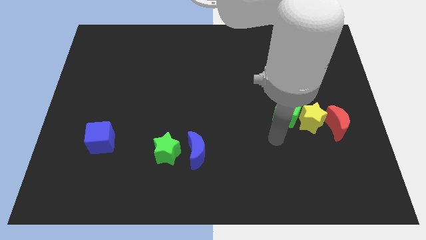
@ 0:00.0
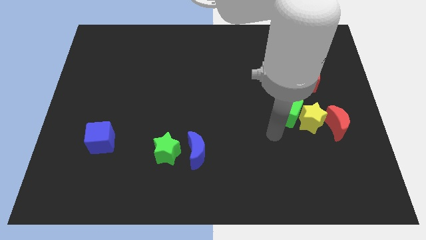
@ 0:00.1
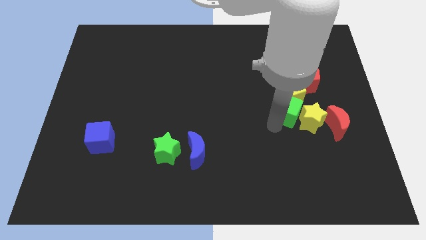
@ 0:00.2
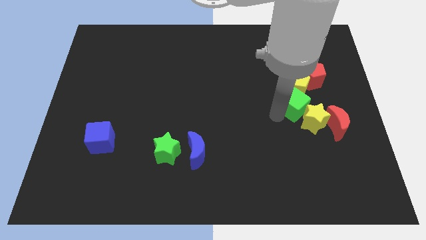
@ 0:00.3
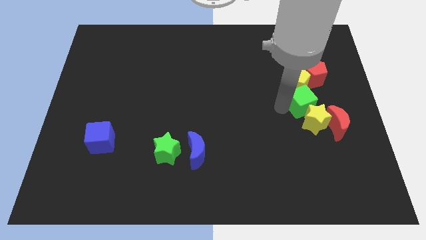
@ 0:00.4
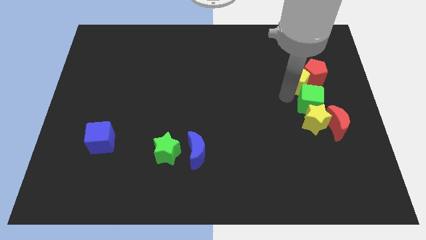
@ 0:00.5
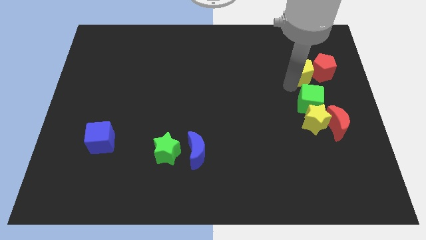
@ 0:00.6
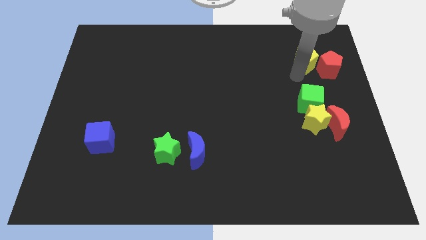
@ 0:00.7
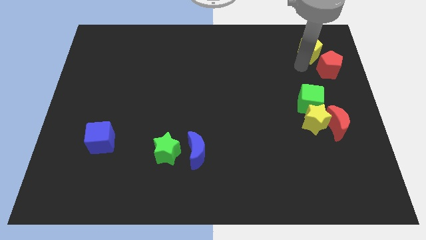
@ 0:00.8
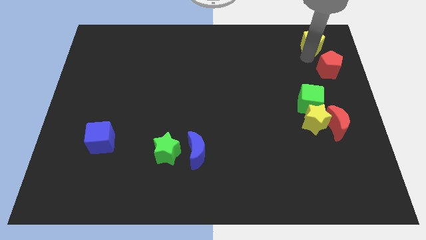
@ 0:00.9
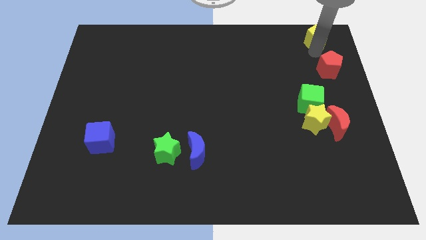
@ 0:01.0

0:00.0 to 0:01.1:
move the red pentagon away from the yellow pentagon

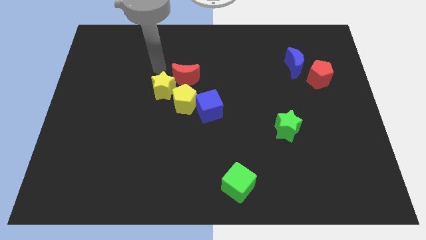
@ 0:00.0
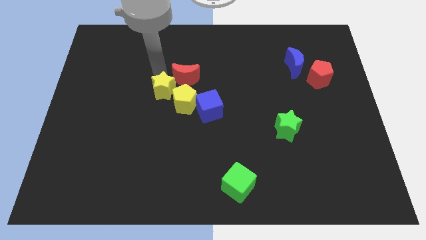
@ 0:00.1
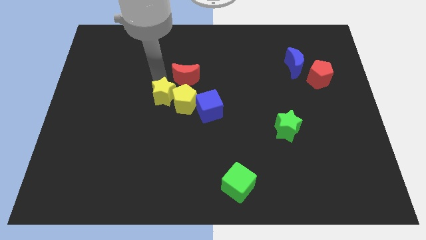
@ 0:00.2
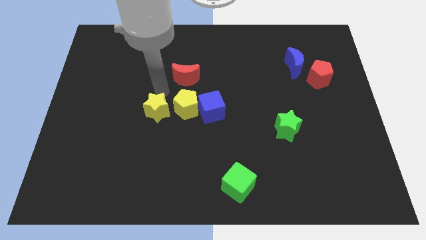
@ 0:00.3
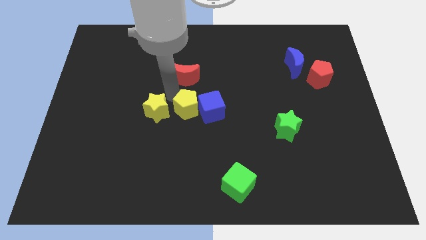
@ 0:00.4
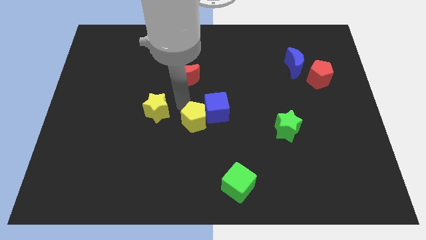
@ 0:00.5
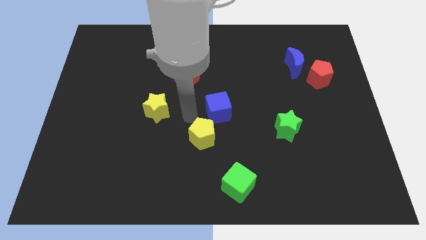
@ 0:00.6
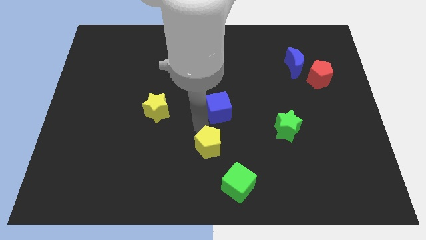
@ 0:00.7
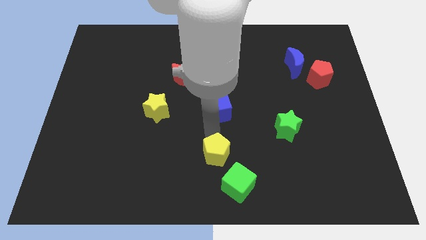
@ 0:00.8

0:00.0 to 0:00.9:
move the blue cube away from the yellow pentagon

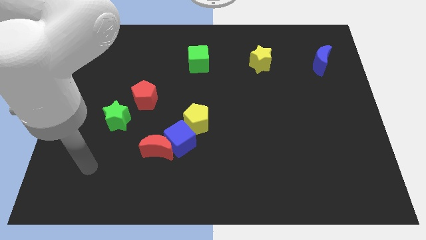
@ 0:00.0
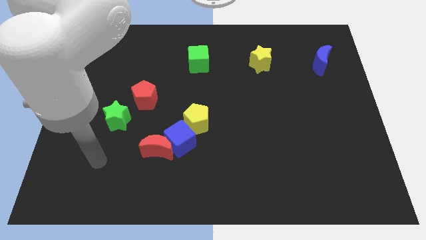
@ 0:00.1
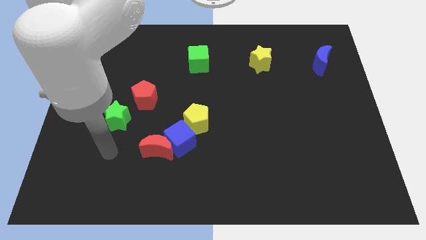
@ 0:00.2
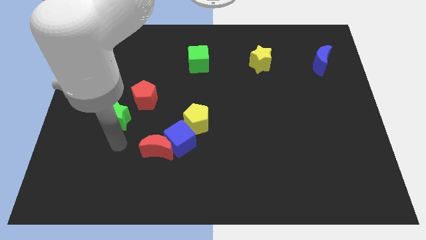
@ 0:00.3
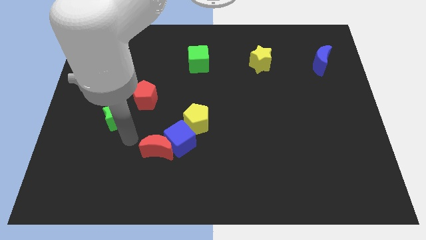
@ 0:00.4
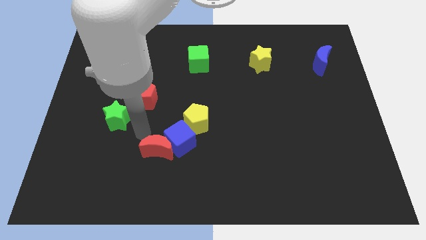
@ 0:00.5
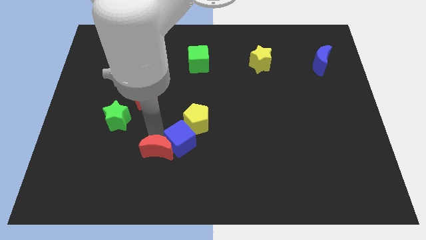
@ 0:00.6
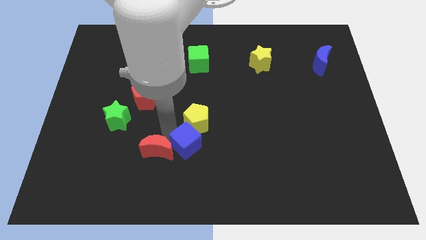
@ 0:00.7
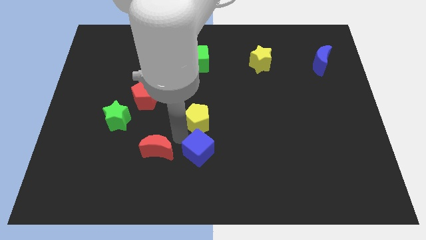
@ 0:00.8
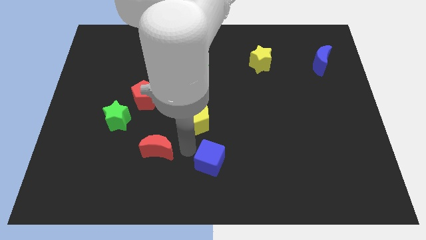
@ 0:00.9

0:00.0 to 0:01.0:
pull the red moon apart from the blue cube

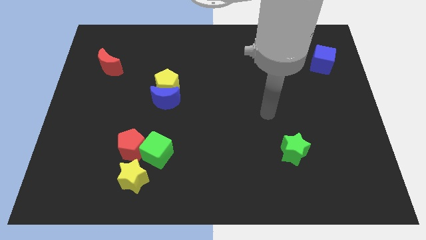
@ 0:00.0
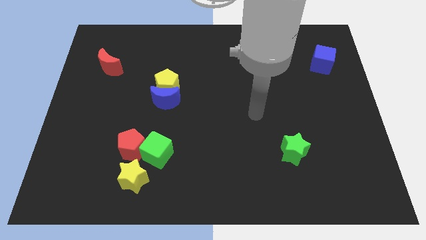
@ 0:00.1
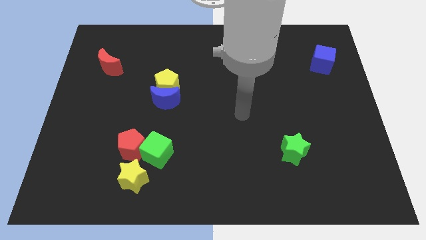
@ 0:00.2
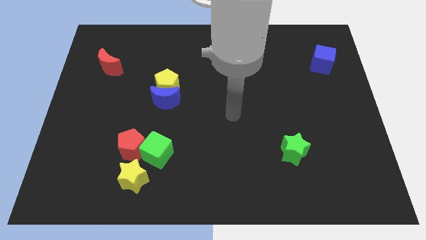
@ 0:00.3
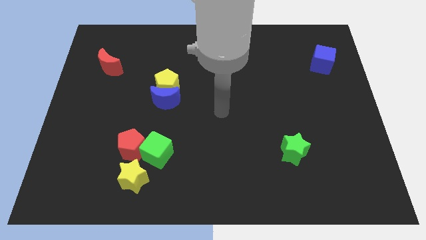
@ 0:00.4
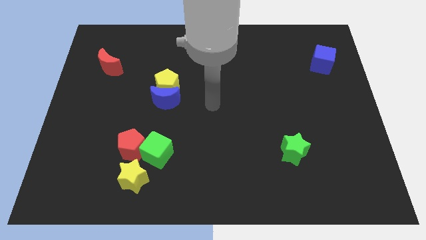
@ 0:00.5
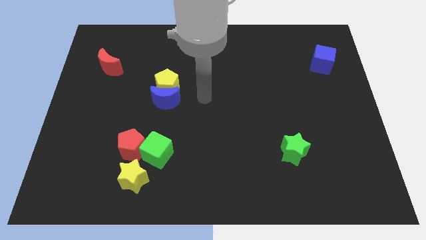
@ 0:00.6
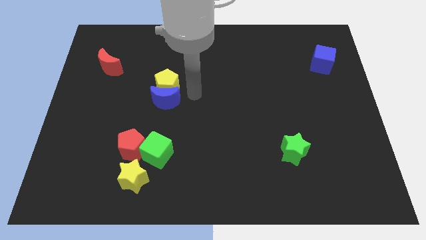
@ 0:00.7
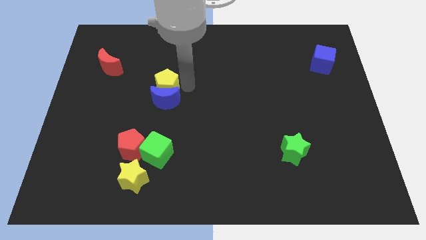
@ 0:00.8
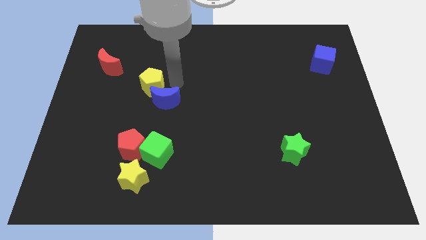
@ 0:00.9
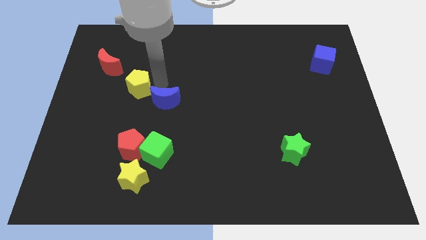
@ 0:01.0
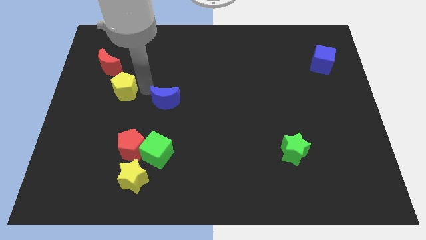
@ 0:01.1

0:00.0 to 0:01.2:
separate the blue moon from the yellow pentagon

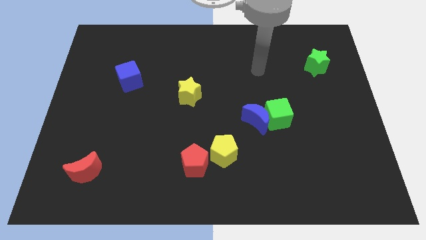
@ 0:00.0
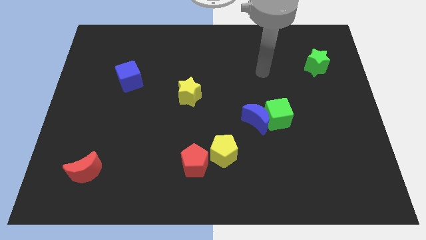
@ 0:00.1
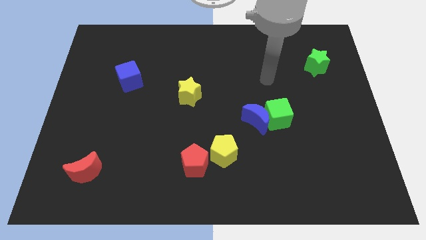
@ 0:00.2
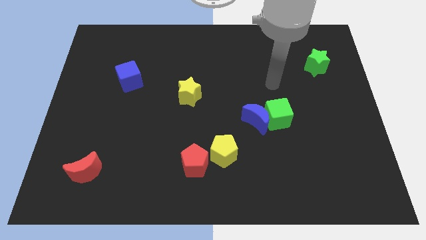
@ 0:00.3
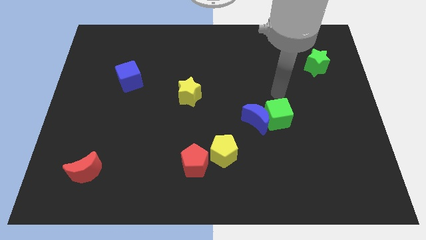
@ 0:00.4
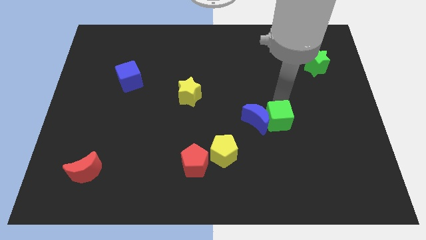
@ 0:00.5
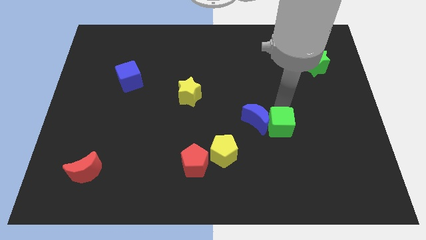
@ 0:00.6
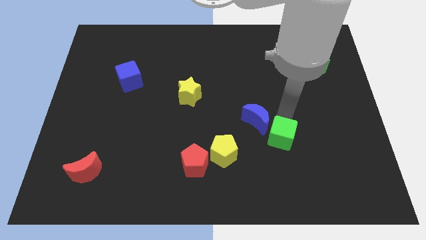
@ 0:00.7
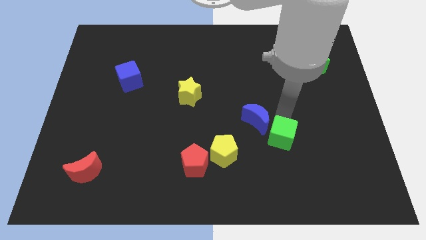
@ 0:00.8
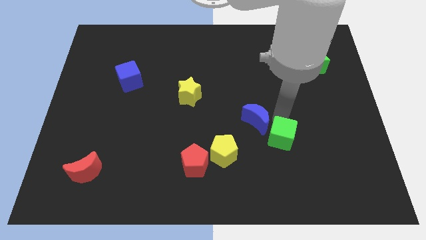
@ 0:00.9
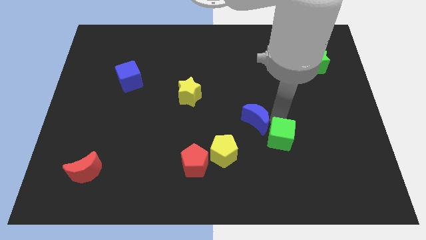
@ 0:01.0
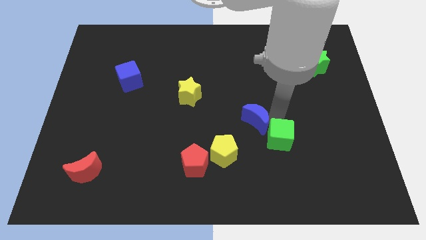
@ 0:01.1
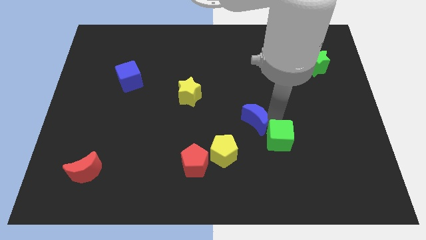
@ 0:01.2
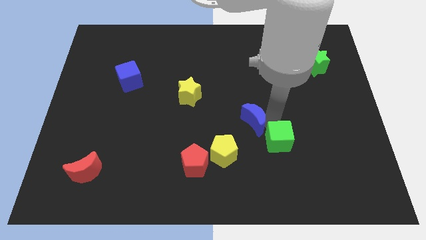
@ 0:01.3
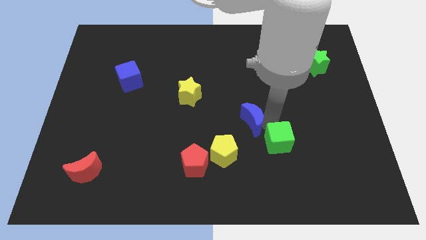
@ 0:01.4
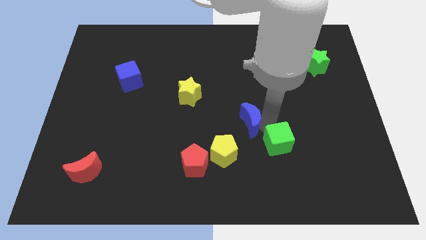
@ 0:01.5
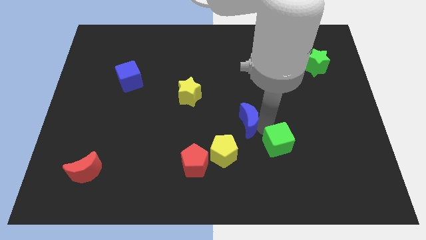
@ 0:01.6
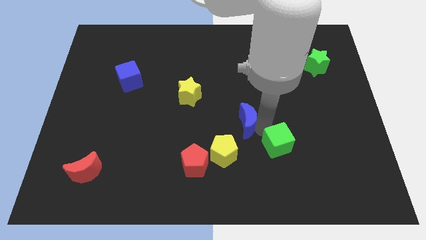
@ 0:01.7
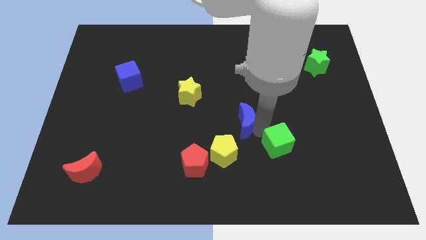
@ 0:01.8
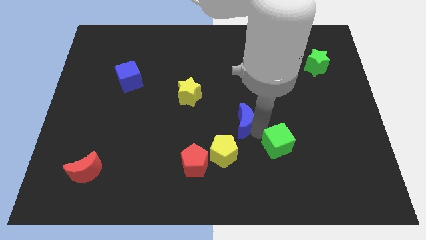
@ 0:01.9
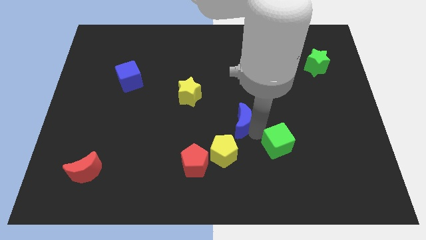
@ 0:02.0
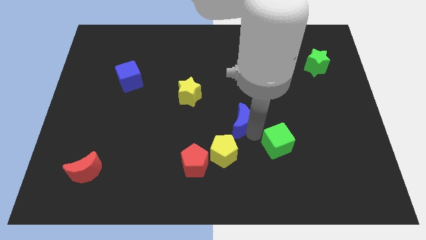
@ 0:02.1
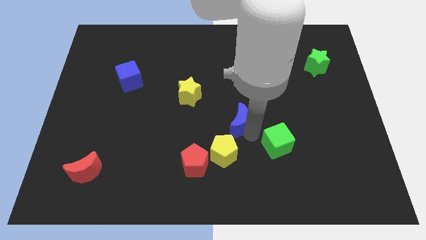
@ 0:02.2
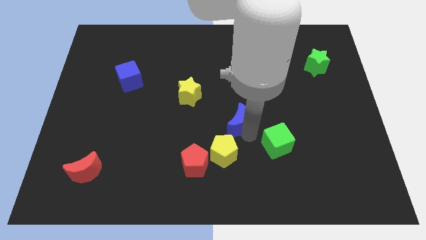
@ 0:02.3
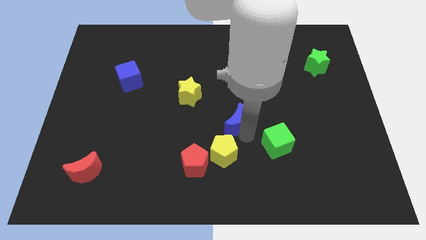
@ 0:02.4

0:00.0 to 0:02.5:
pull the blue moon apart from the green cube

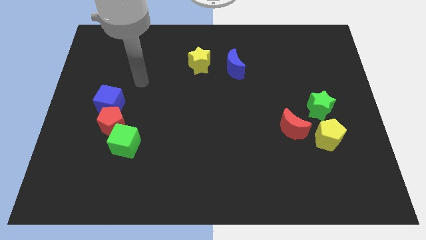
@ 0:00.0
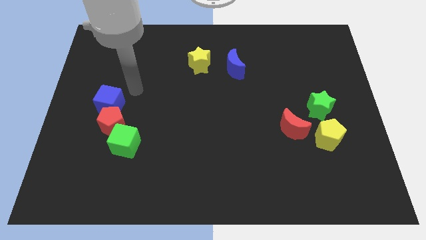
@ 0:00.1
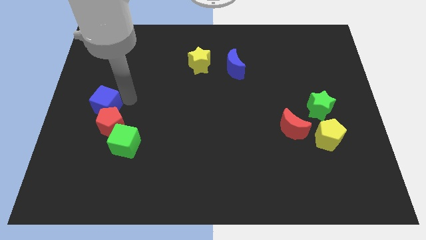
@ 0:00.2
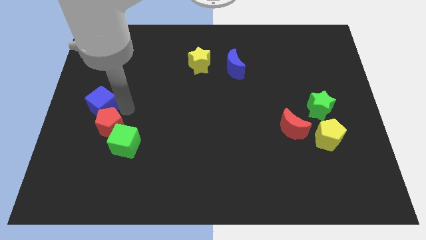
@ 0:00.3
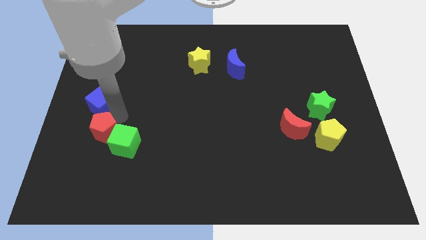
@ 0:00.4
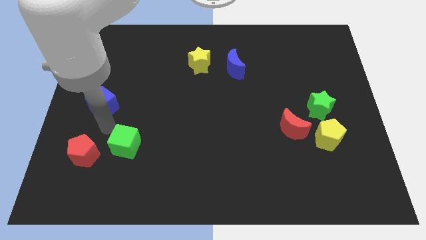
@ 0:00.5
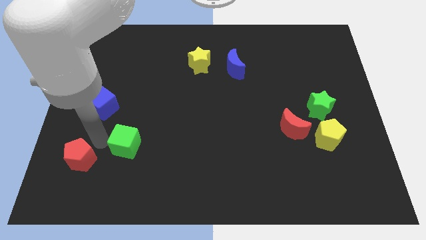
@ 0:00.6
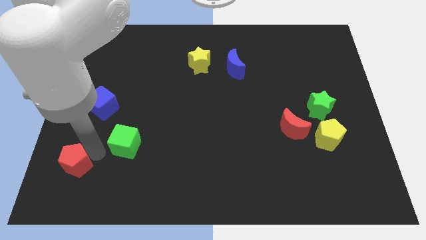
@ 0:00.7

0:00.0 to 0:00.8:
move the green cube away from the red pentagon

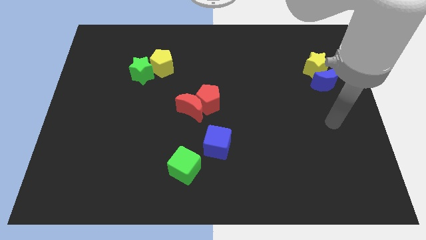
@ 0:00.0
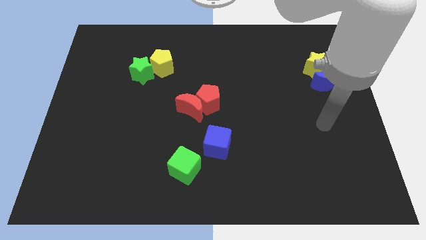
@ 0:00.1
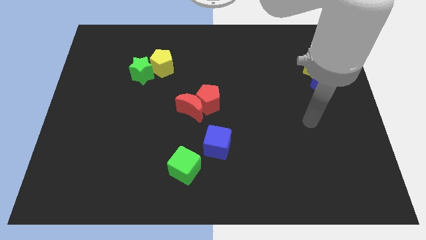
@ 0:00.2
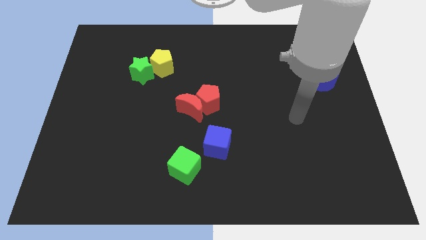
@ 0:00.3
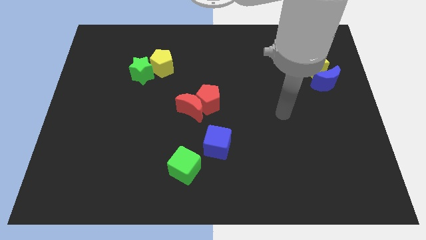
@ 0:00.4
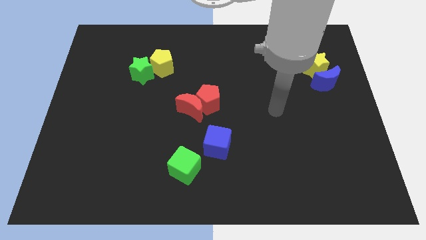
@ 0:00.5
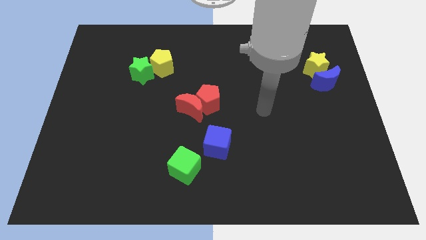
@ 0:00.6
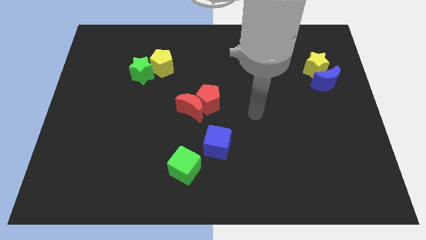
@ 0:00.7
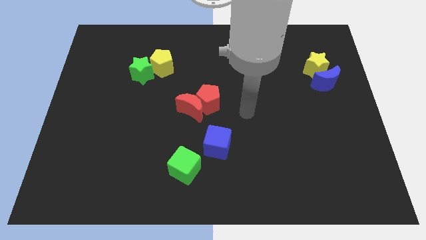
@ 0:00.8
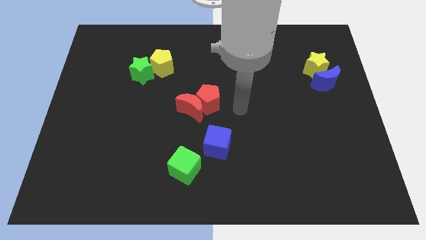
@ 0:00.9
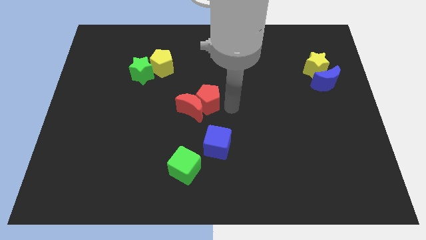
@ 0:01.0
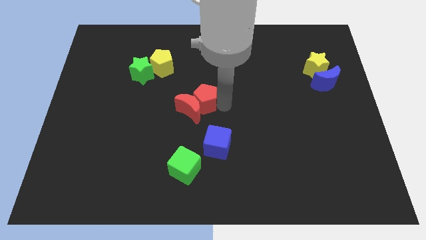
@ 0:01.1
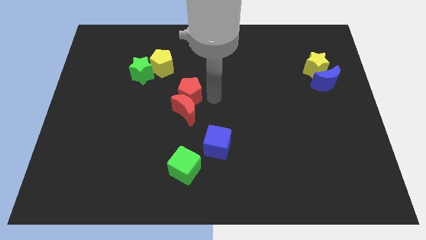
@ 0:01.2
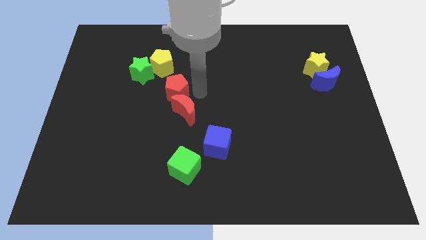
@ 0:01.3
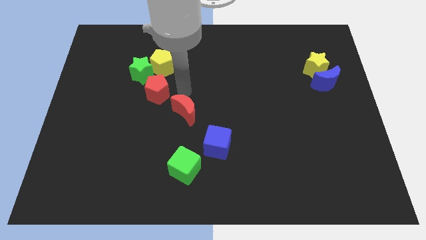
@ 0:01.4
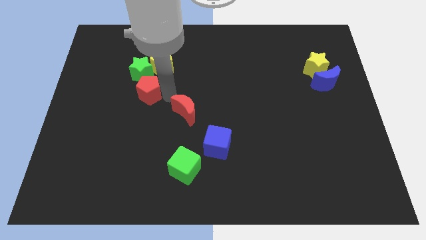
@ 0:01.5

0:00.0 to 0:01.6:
separate the red moon from the red pentagon
